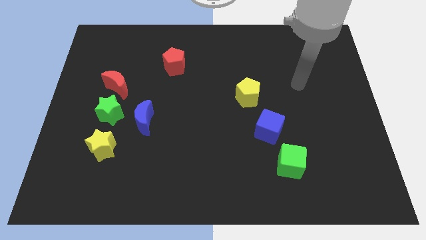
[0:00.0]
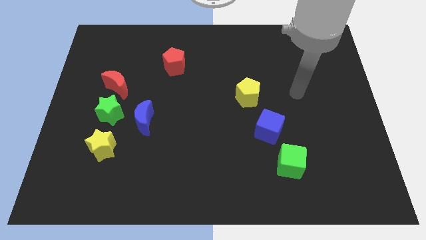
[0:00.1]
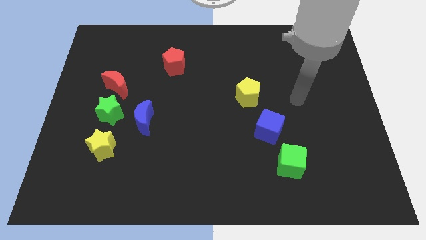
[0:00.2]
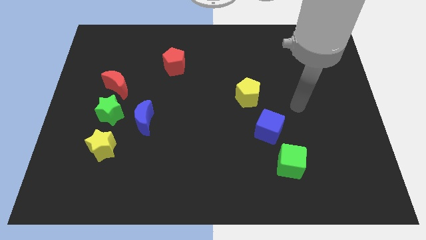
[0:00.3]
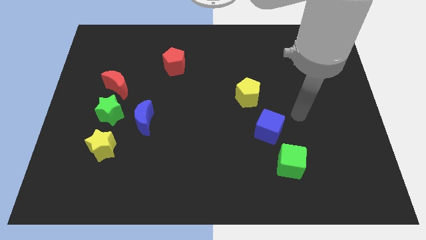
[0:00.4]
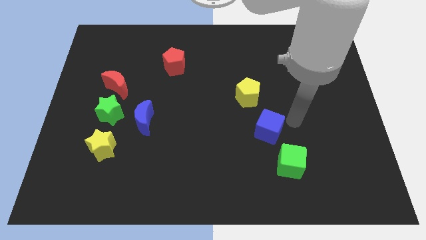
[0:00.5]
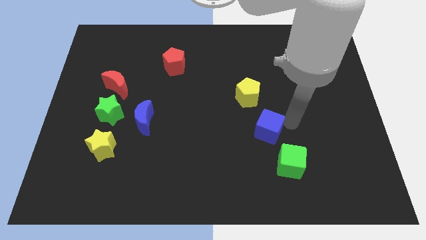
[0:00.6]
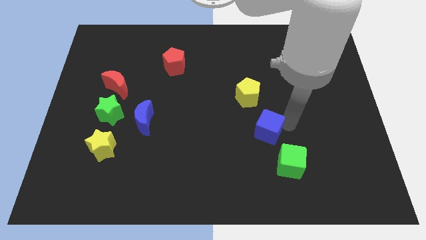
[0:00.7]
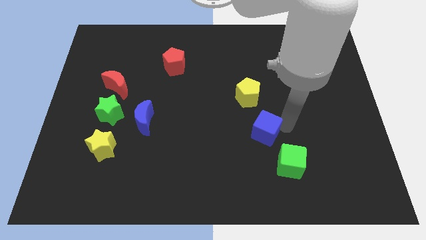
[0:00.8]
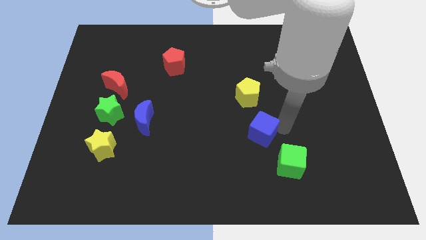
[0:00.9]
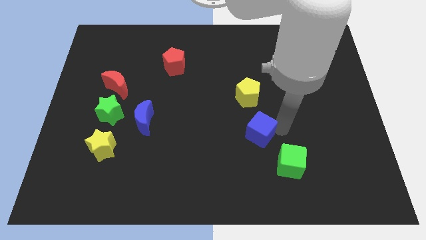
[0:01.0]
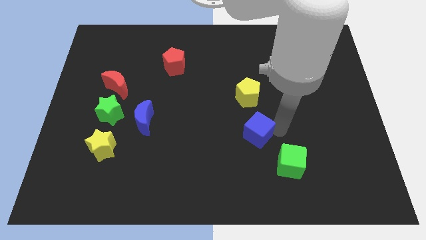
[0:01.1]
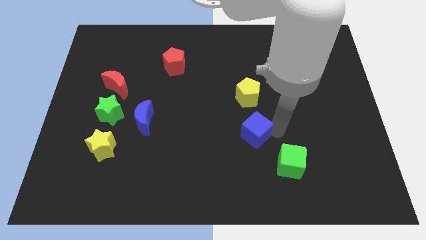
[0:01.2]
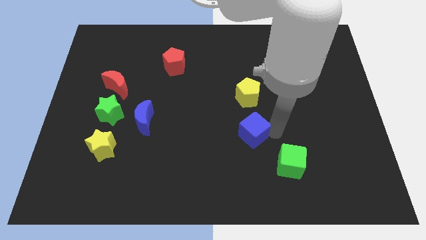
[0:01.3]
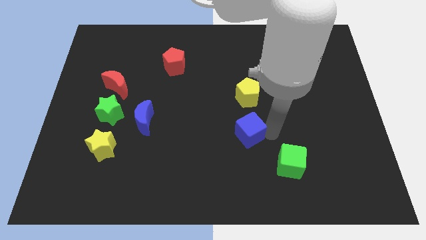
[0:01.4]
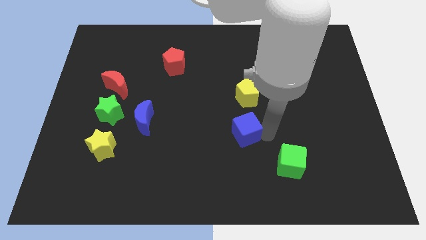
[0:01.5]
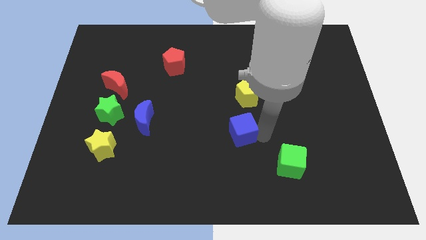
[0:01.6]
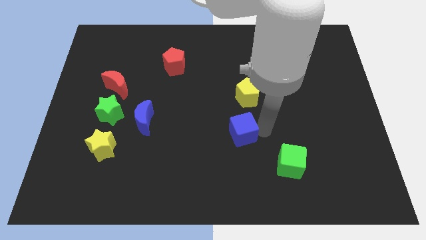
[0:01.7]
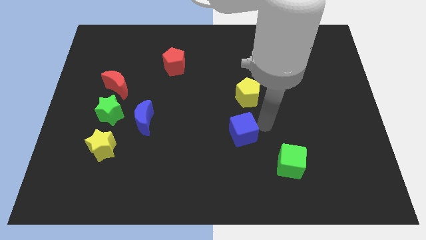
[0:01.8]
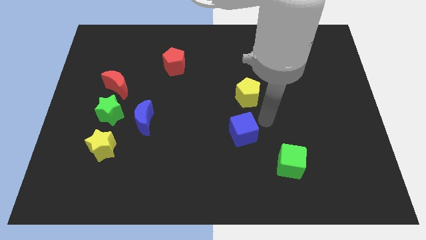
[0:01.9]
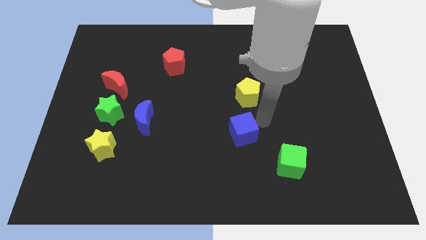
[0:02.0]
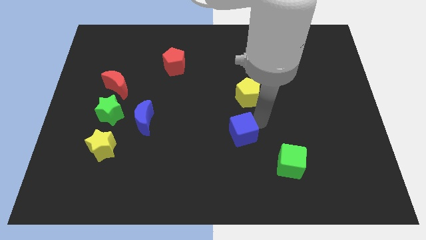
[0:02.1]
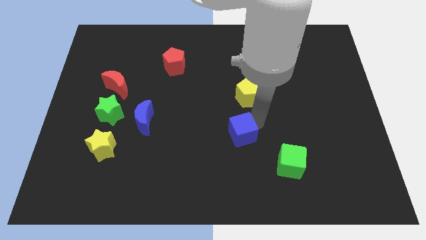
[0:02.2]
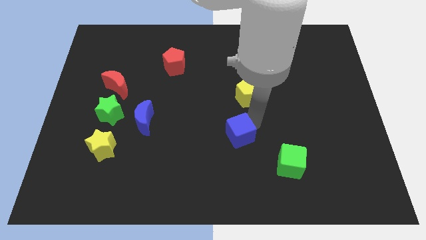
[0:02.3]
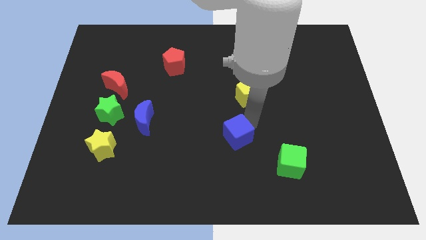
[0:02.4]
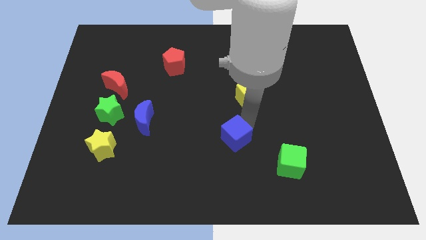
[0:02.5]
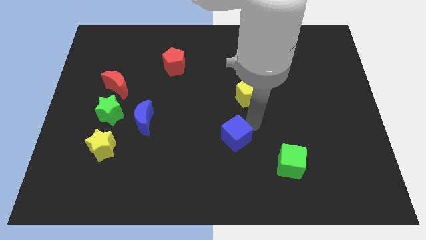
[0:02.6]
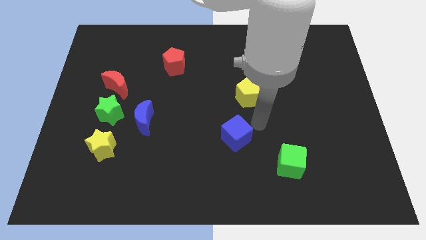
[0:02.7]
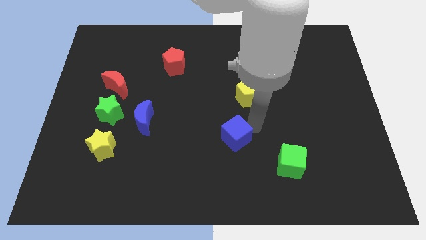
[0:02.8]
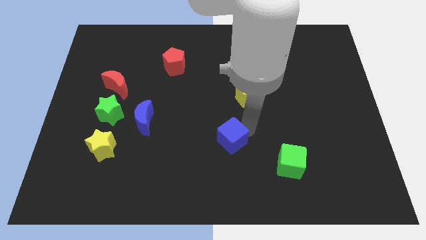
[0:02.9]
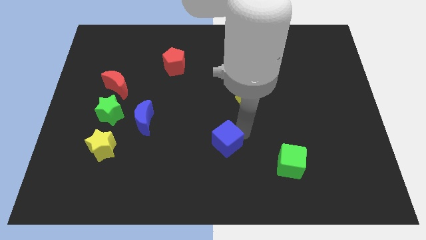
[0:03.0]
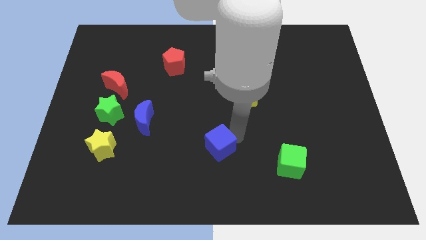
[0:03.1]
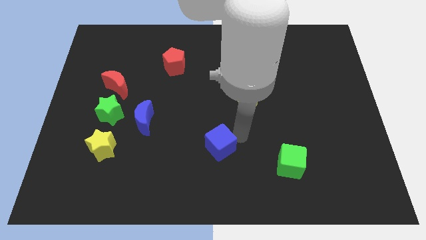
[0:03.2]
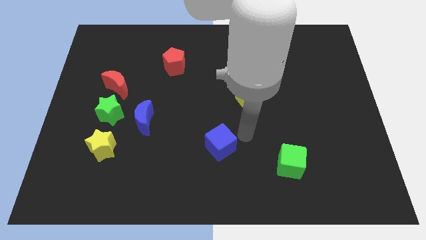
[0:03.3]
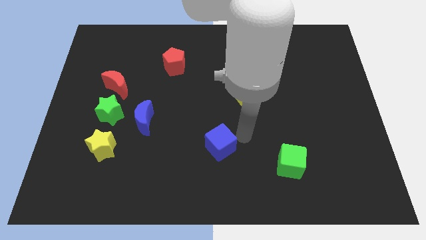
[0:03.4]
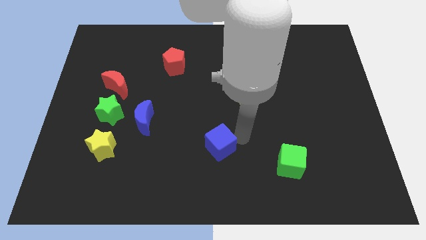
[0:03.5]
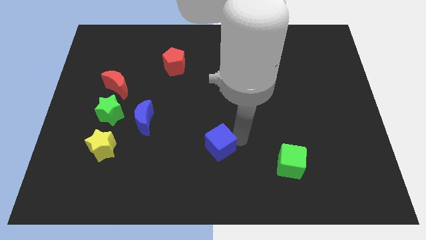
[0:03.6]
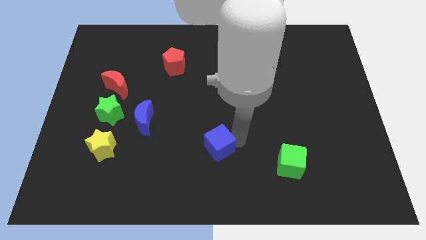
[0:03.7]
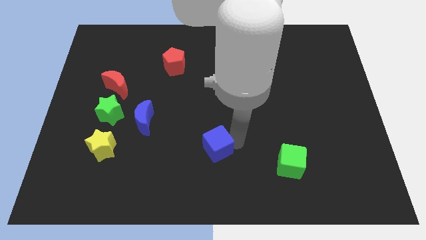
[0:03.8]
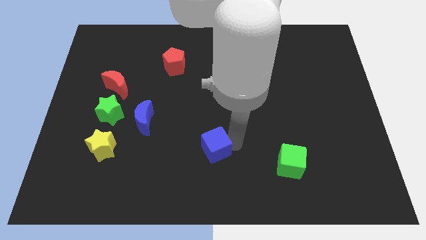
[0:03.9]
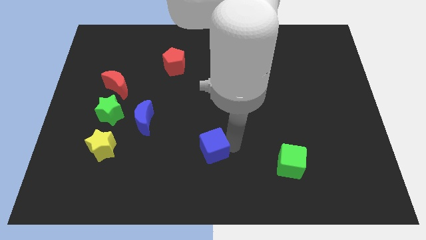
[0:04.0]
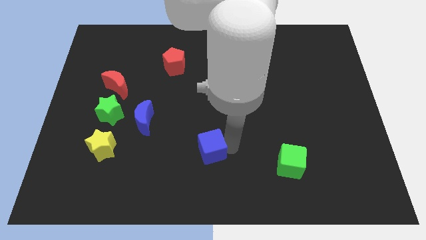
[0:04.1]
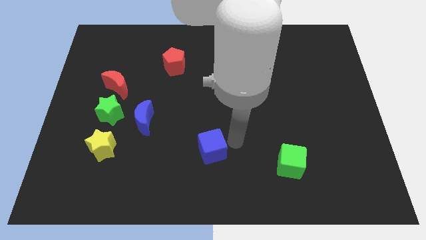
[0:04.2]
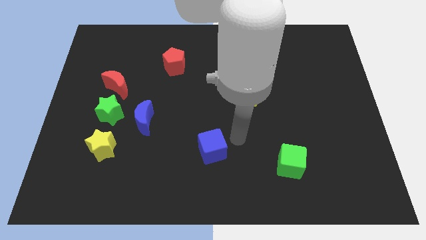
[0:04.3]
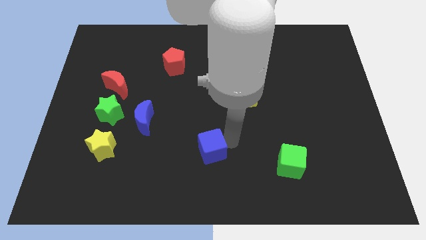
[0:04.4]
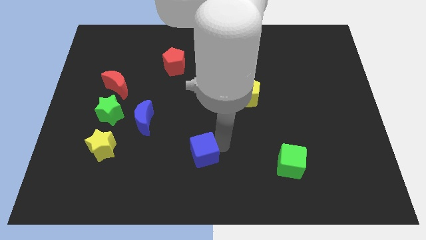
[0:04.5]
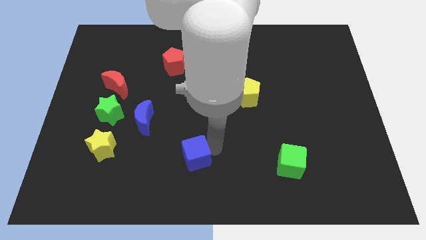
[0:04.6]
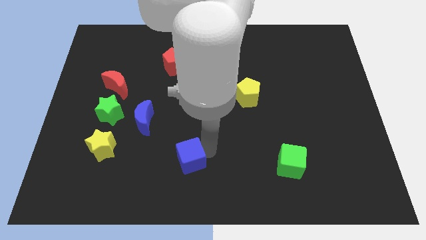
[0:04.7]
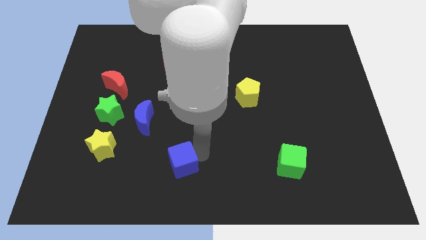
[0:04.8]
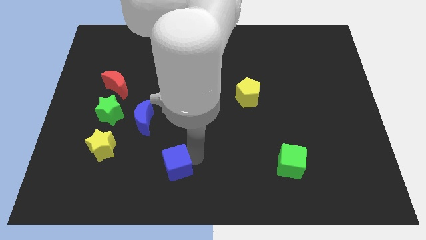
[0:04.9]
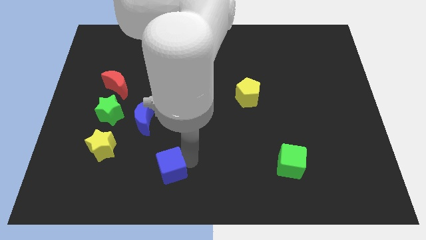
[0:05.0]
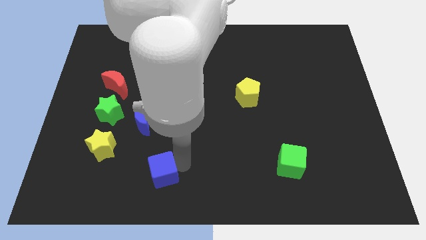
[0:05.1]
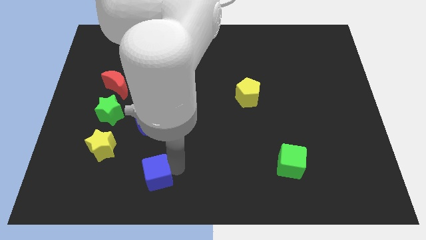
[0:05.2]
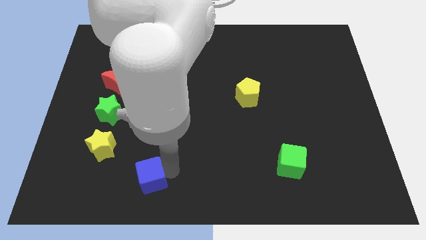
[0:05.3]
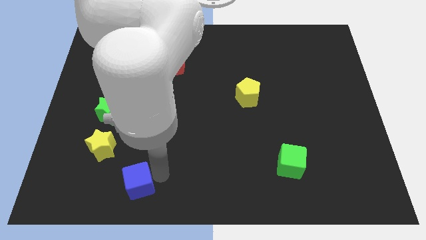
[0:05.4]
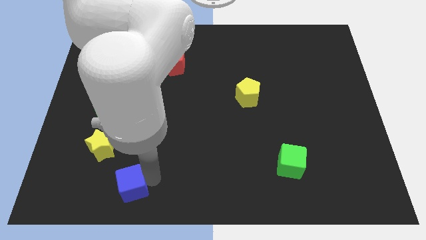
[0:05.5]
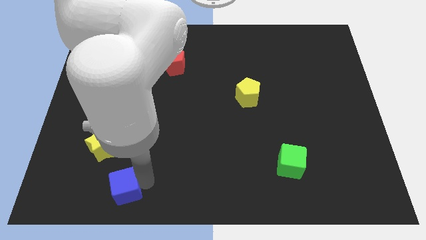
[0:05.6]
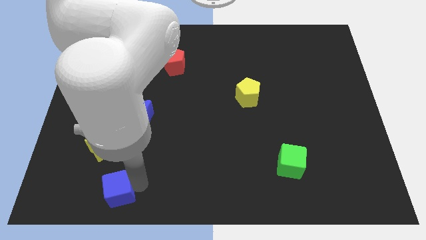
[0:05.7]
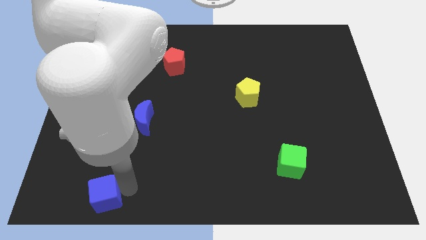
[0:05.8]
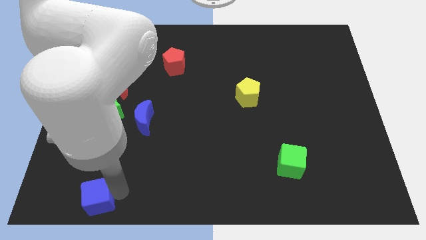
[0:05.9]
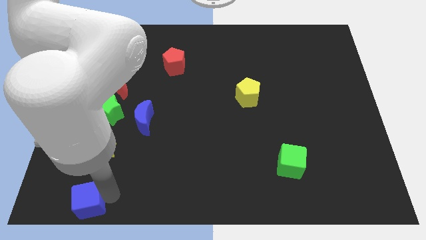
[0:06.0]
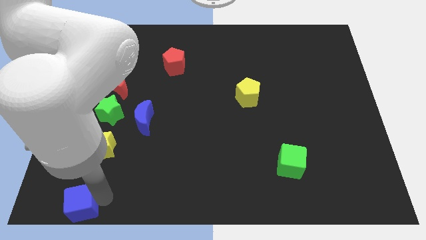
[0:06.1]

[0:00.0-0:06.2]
push the blue cube to the lower left corner
